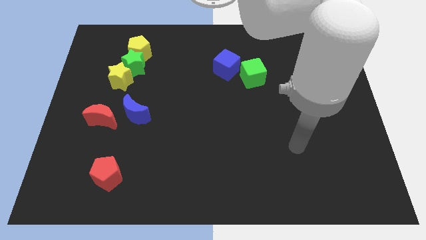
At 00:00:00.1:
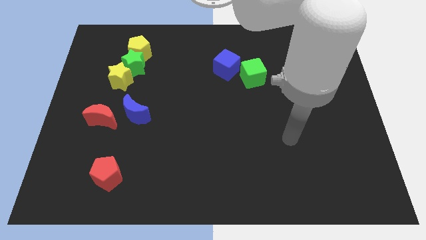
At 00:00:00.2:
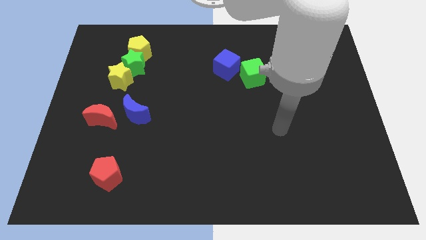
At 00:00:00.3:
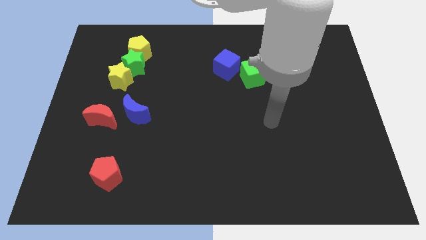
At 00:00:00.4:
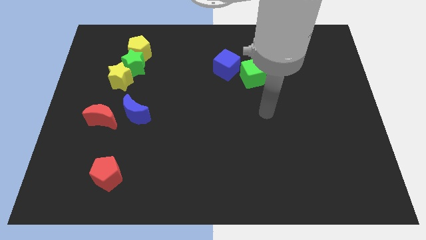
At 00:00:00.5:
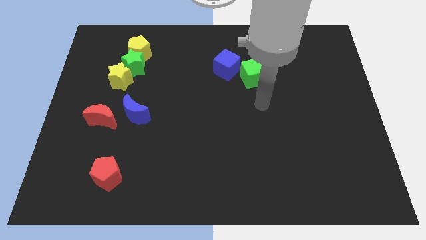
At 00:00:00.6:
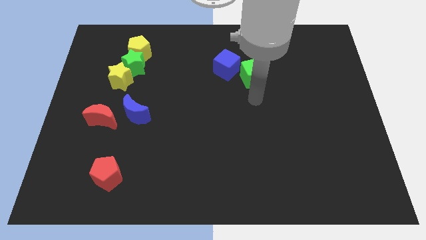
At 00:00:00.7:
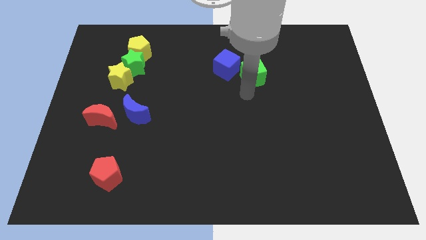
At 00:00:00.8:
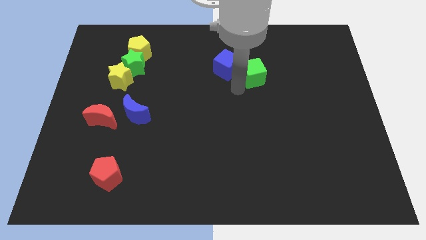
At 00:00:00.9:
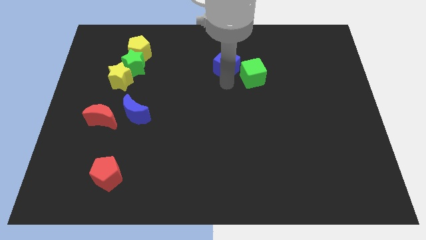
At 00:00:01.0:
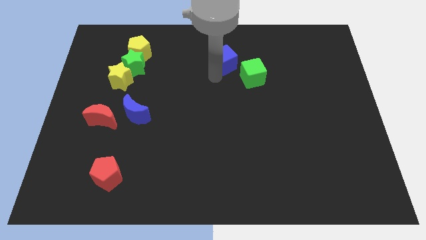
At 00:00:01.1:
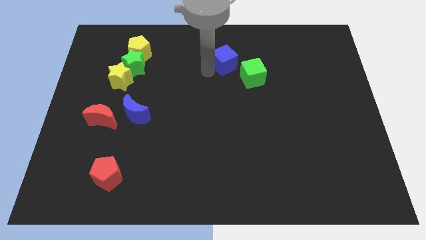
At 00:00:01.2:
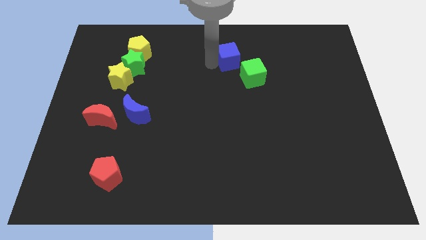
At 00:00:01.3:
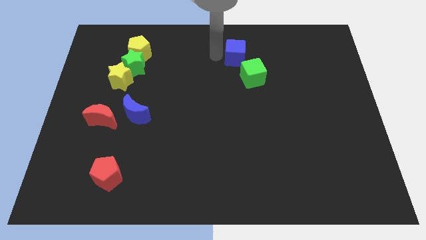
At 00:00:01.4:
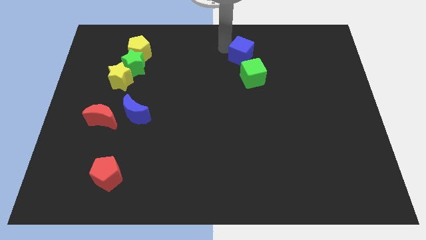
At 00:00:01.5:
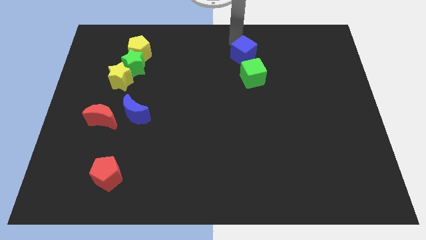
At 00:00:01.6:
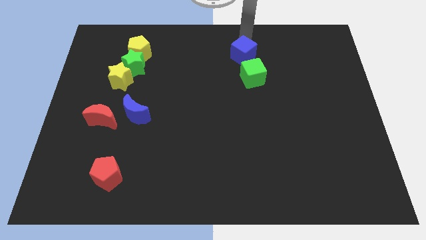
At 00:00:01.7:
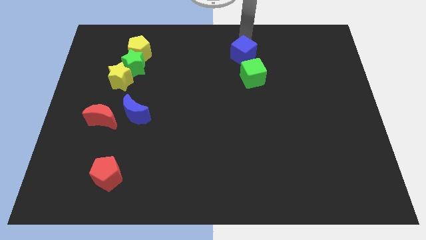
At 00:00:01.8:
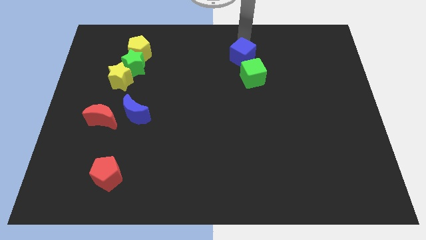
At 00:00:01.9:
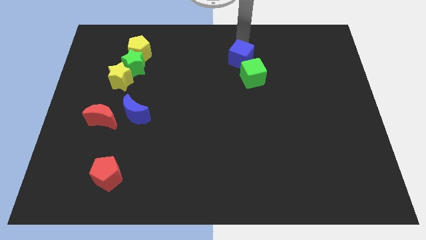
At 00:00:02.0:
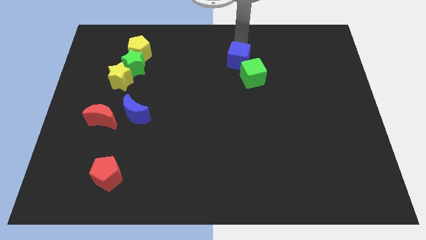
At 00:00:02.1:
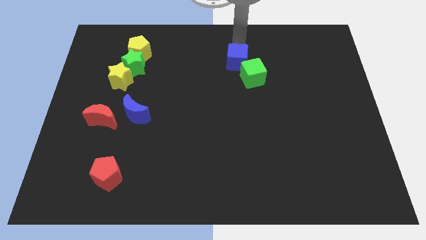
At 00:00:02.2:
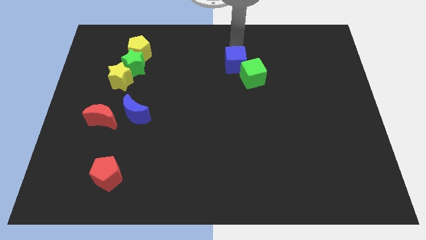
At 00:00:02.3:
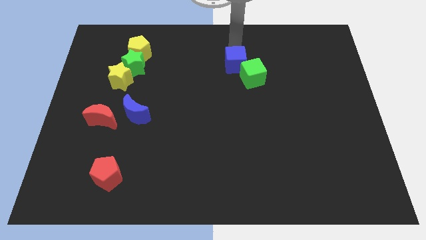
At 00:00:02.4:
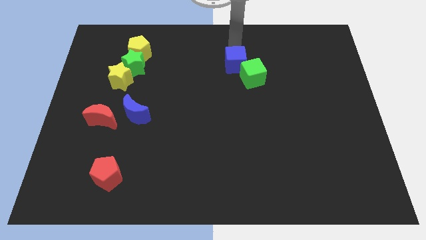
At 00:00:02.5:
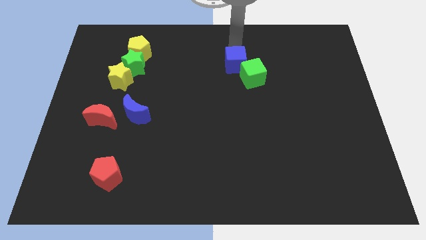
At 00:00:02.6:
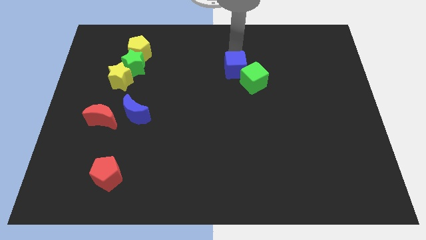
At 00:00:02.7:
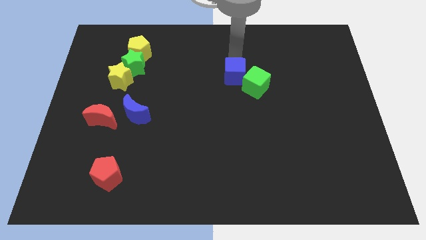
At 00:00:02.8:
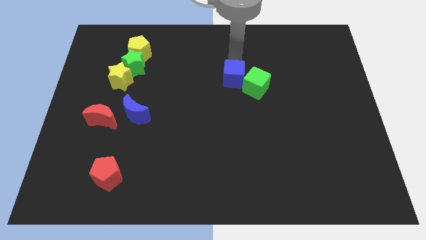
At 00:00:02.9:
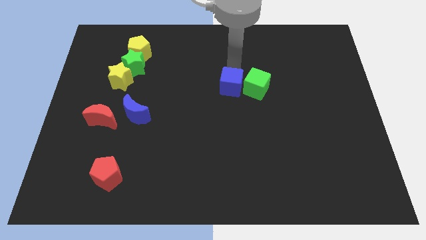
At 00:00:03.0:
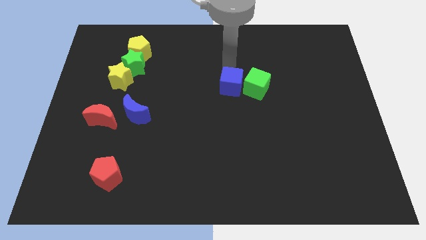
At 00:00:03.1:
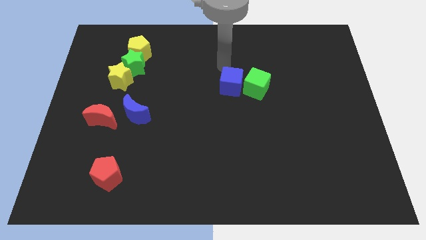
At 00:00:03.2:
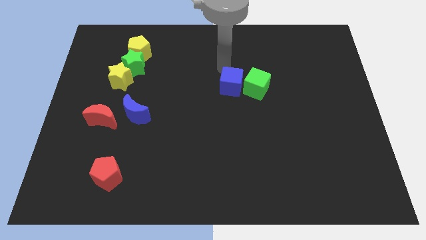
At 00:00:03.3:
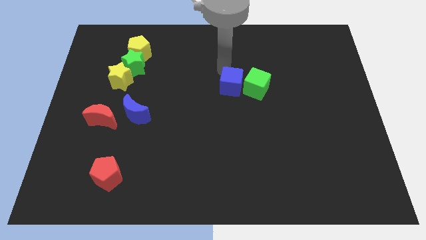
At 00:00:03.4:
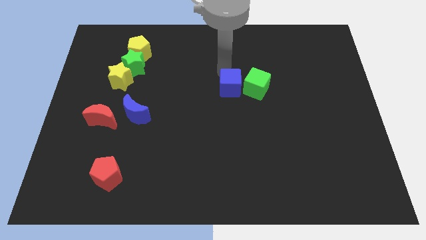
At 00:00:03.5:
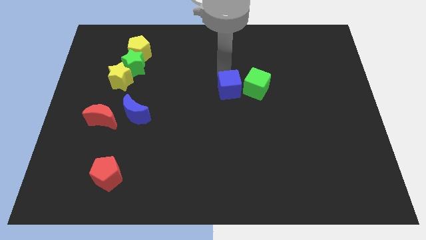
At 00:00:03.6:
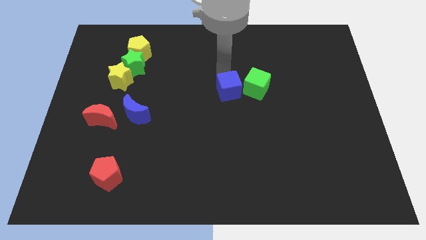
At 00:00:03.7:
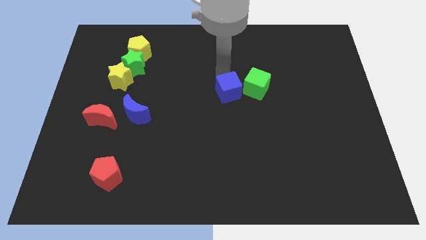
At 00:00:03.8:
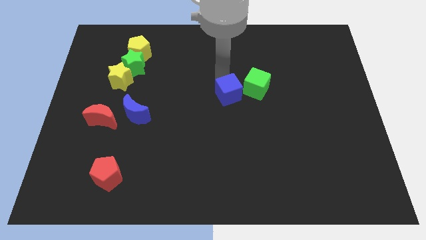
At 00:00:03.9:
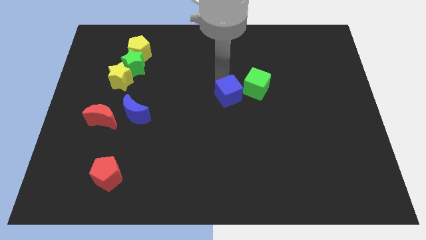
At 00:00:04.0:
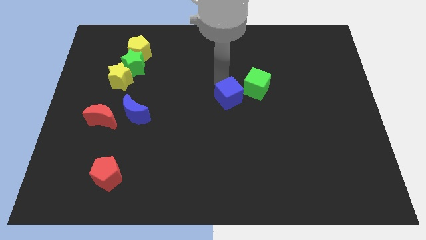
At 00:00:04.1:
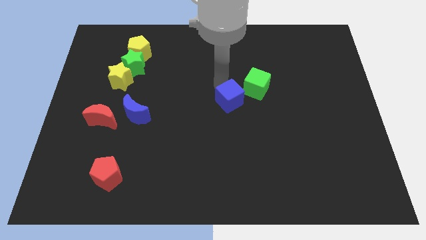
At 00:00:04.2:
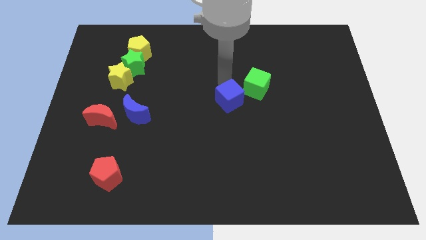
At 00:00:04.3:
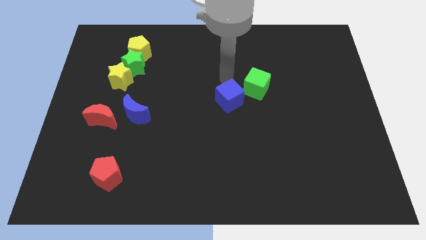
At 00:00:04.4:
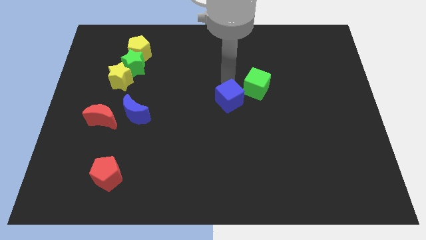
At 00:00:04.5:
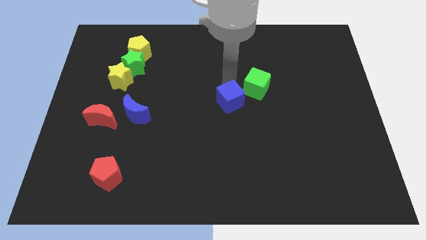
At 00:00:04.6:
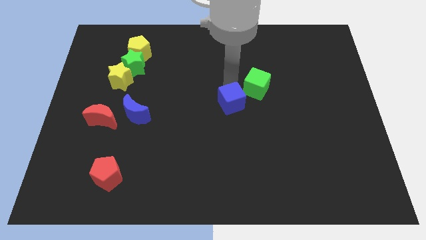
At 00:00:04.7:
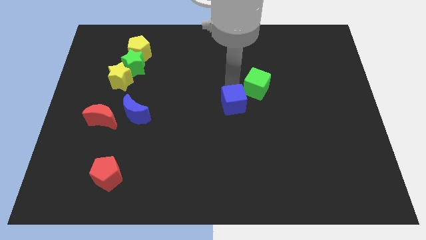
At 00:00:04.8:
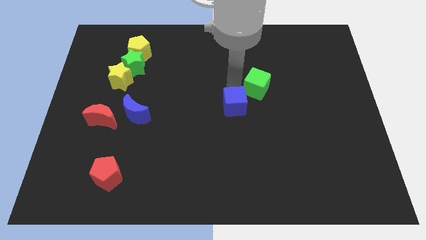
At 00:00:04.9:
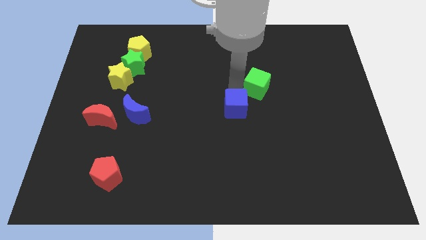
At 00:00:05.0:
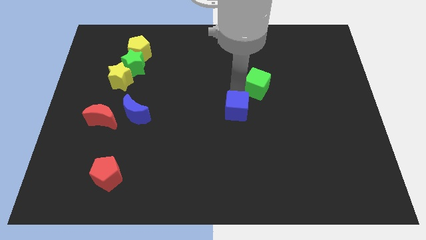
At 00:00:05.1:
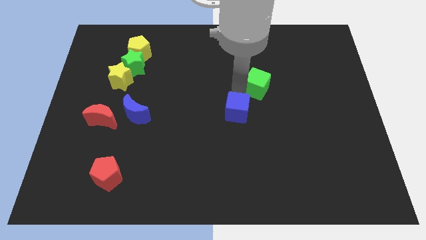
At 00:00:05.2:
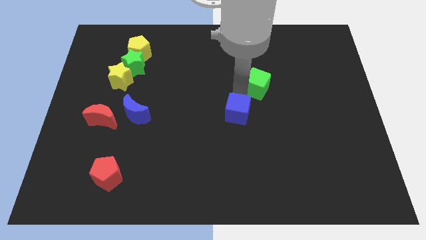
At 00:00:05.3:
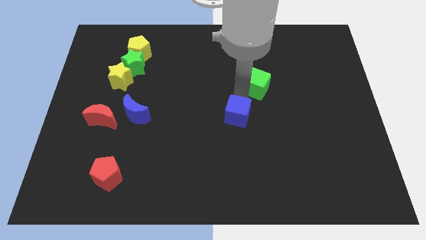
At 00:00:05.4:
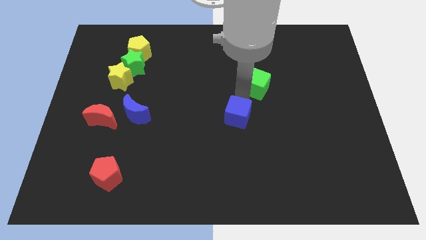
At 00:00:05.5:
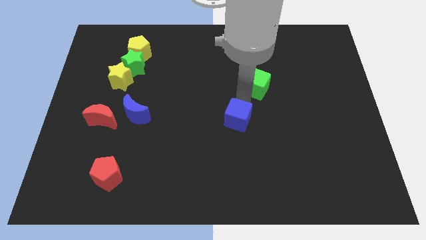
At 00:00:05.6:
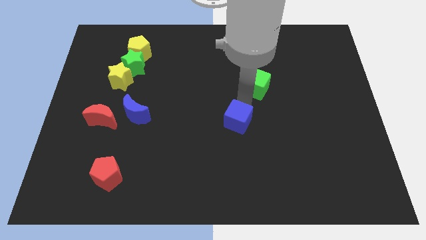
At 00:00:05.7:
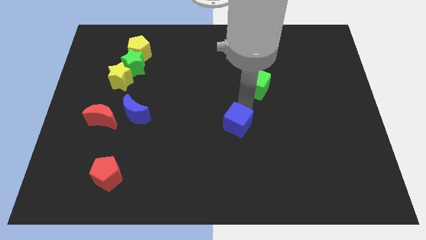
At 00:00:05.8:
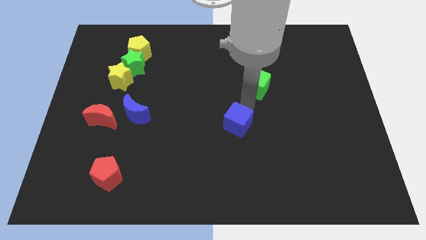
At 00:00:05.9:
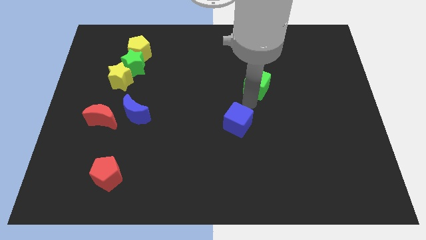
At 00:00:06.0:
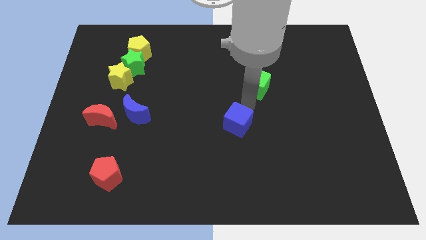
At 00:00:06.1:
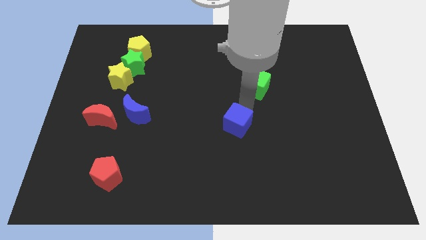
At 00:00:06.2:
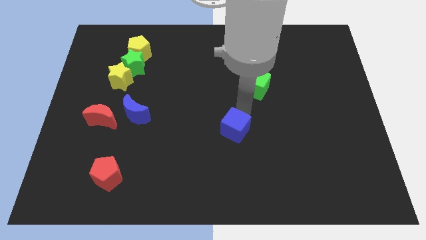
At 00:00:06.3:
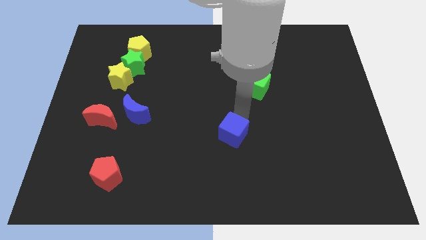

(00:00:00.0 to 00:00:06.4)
push the blue cube down

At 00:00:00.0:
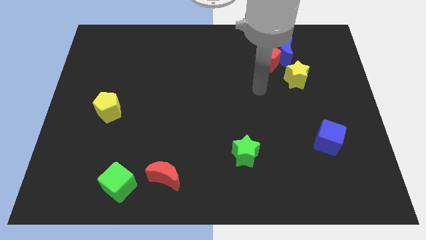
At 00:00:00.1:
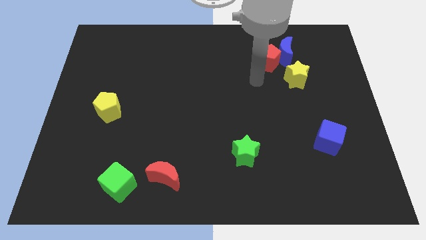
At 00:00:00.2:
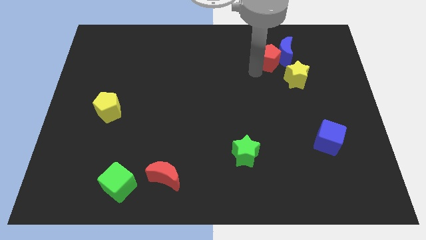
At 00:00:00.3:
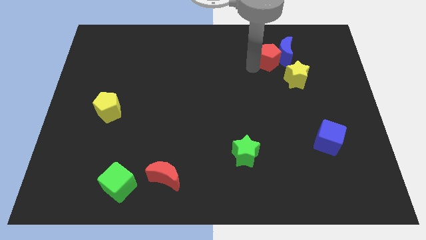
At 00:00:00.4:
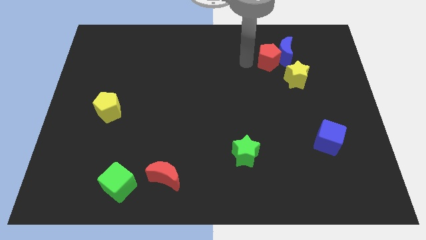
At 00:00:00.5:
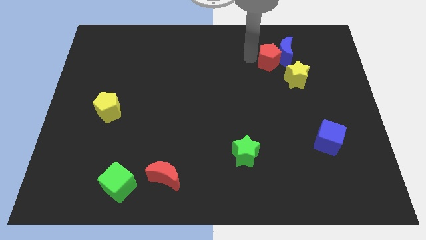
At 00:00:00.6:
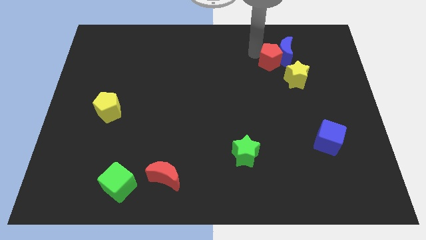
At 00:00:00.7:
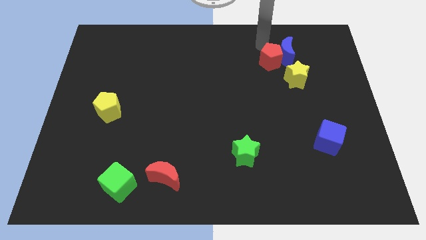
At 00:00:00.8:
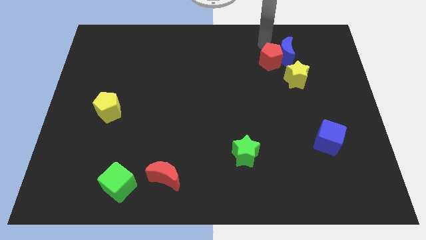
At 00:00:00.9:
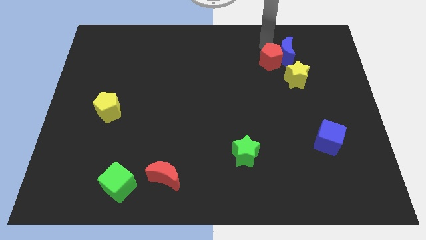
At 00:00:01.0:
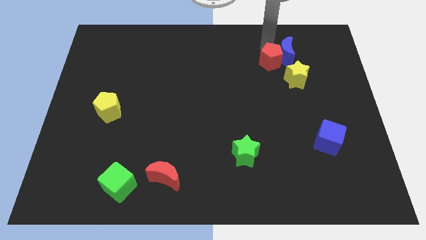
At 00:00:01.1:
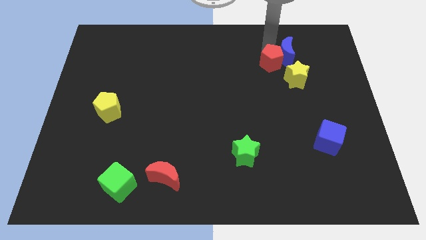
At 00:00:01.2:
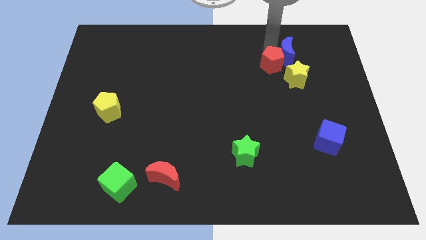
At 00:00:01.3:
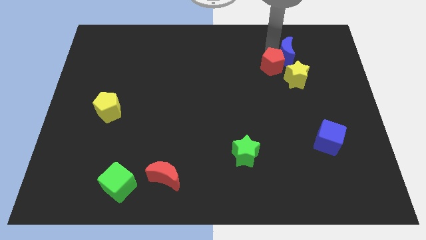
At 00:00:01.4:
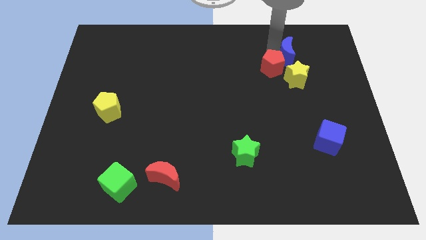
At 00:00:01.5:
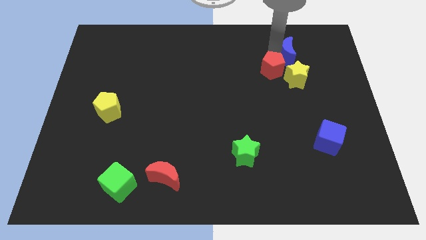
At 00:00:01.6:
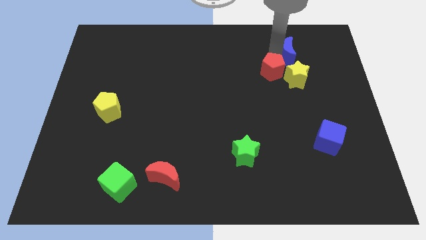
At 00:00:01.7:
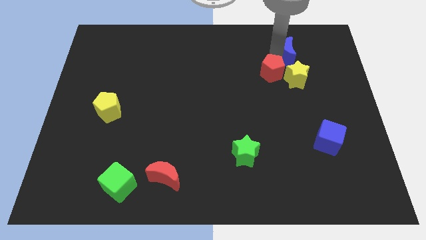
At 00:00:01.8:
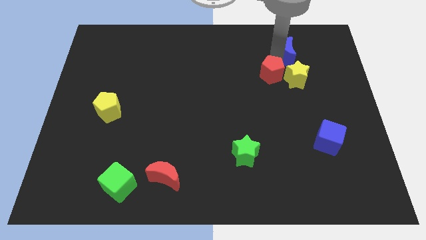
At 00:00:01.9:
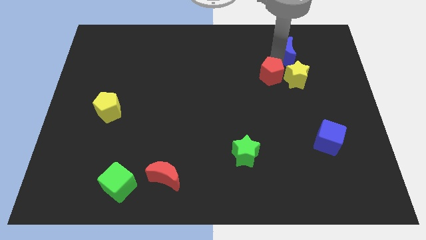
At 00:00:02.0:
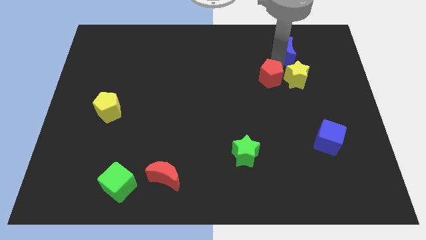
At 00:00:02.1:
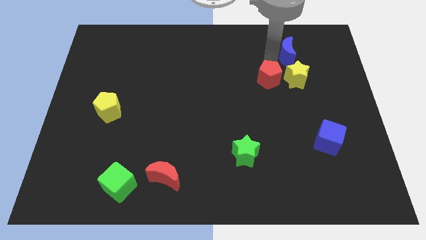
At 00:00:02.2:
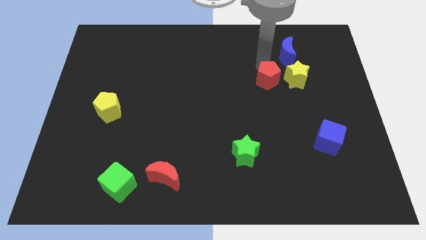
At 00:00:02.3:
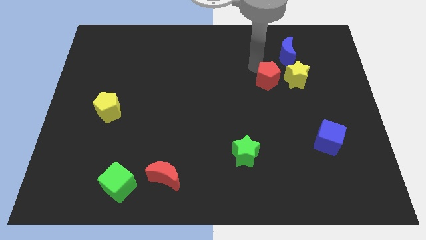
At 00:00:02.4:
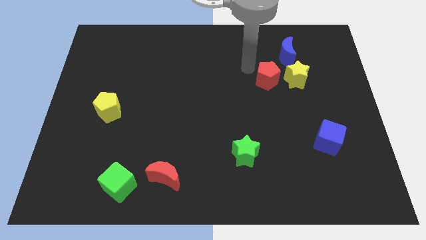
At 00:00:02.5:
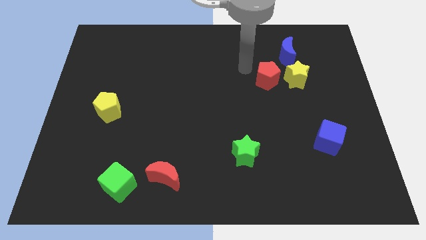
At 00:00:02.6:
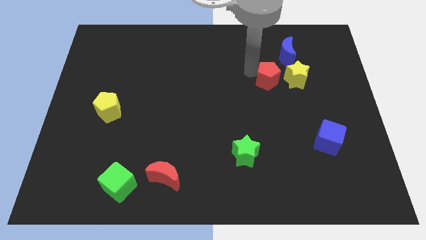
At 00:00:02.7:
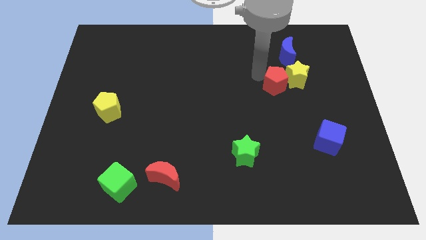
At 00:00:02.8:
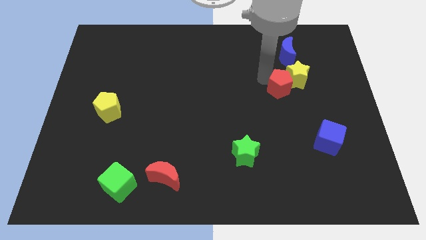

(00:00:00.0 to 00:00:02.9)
slightly slide the red pentagon diagonally downwards and to the right
